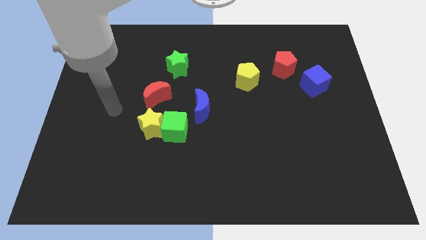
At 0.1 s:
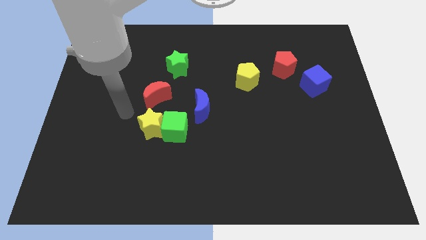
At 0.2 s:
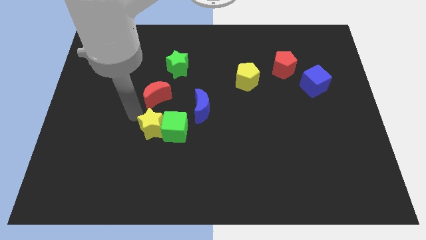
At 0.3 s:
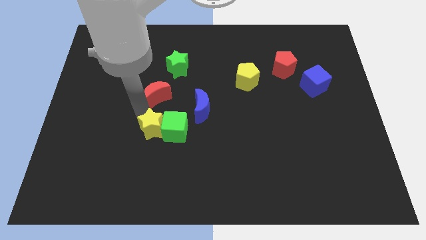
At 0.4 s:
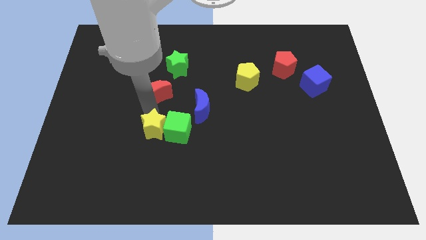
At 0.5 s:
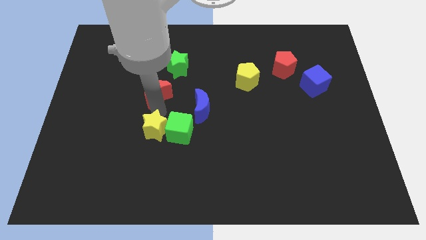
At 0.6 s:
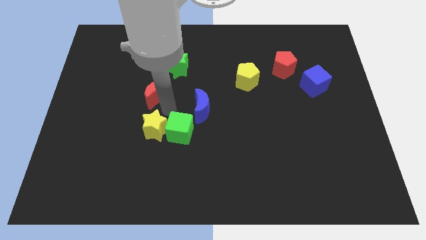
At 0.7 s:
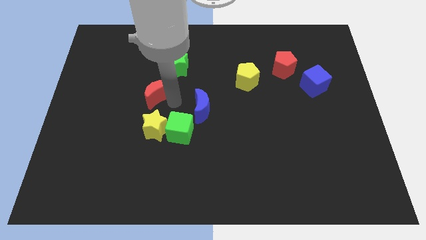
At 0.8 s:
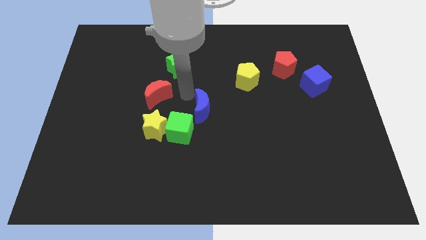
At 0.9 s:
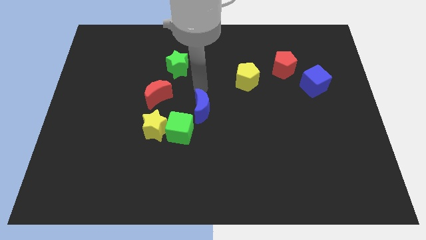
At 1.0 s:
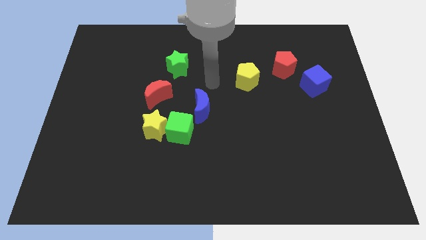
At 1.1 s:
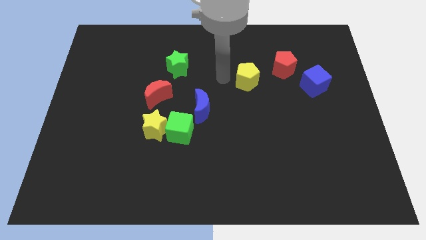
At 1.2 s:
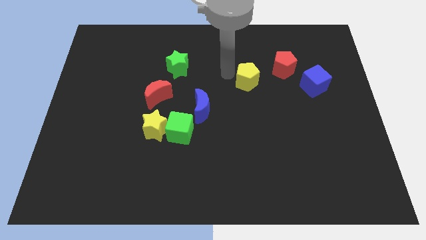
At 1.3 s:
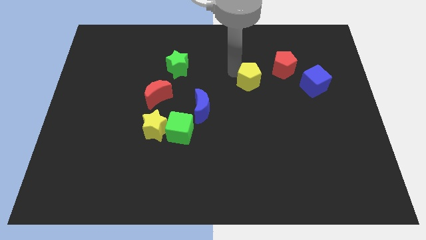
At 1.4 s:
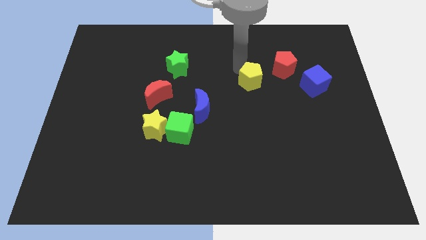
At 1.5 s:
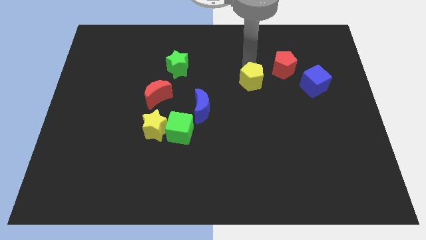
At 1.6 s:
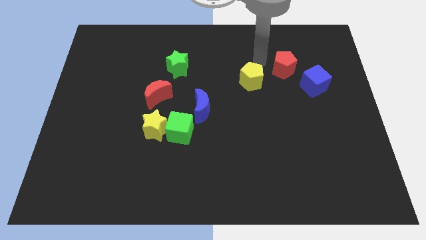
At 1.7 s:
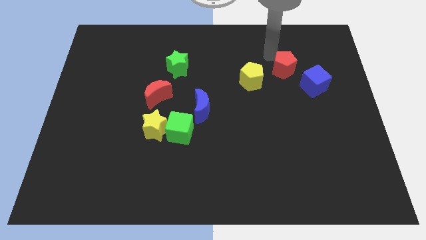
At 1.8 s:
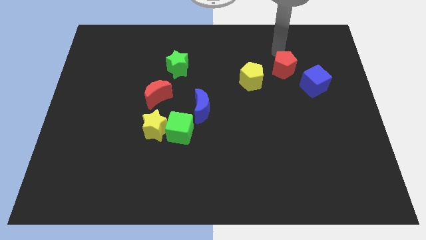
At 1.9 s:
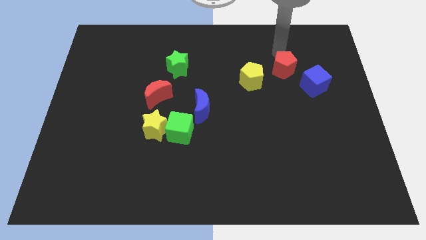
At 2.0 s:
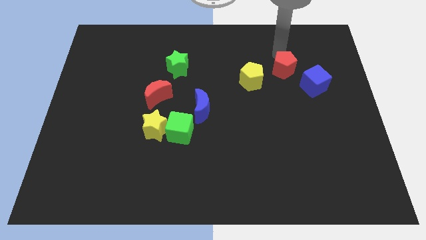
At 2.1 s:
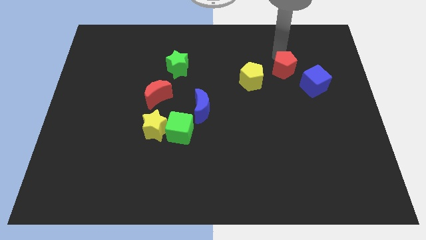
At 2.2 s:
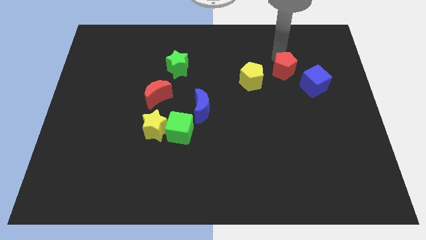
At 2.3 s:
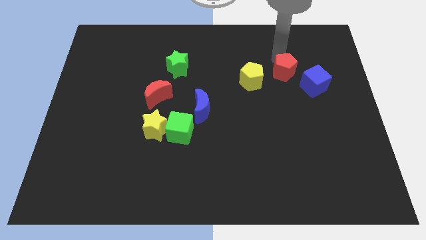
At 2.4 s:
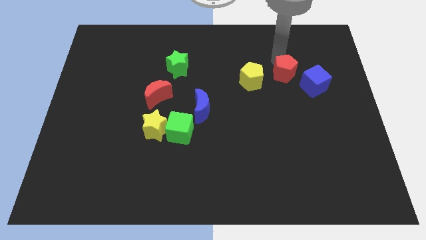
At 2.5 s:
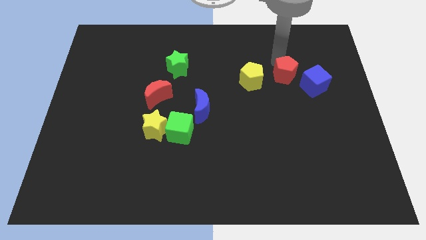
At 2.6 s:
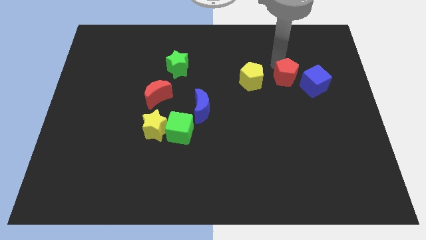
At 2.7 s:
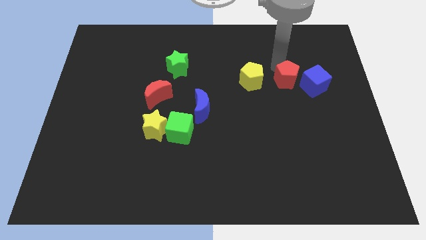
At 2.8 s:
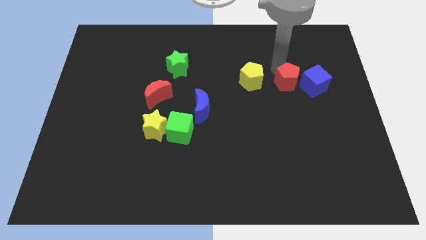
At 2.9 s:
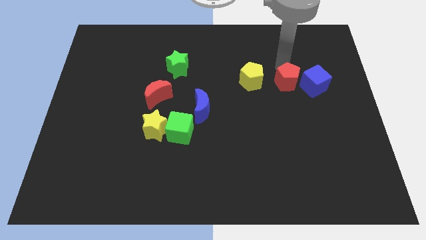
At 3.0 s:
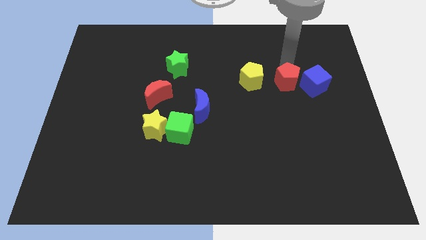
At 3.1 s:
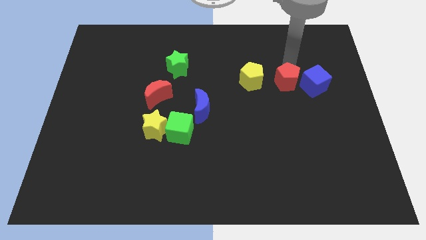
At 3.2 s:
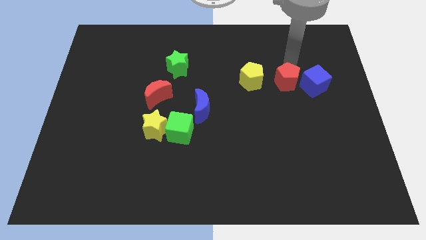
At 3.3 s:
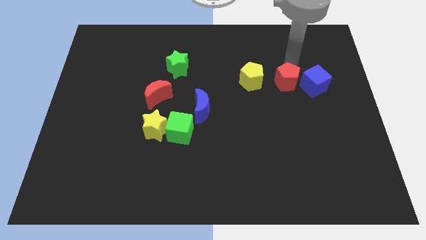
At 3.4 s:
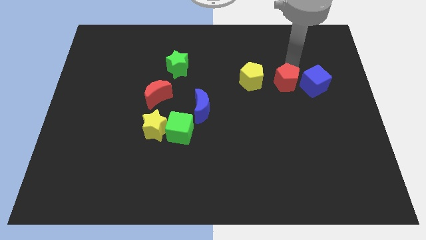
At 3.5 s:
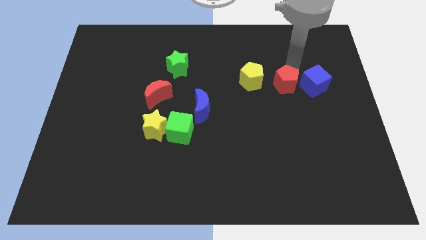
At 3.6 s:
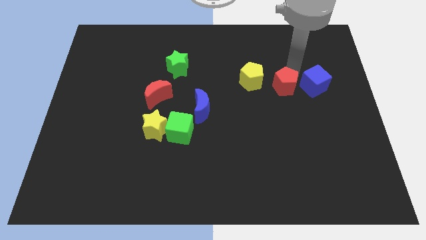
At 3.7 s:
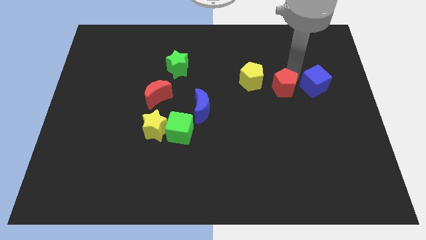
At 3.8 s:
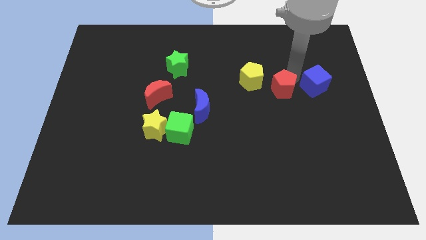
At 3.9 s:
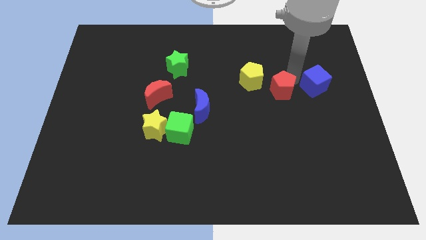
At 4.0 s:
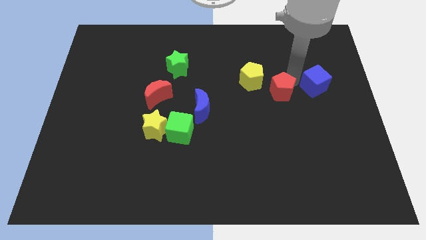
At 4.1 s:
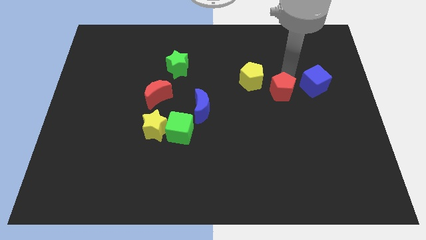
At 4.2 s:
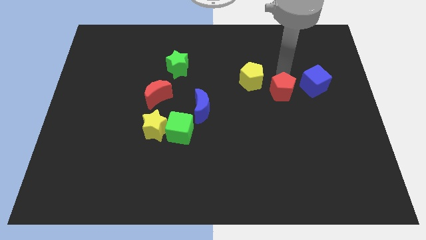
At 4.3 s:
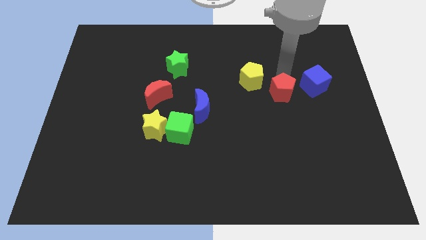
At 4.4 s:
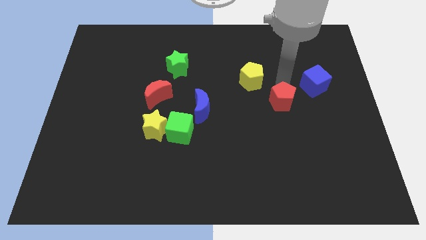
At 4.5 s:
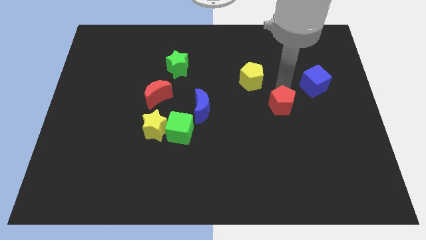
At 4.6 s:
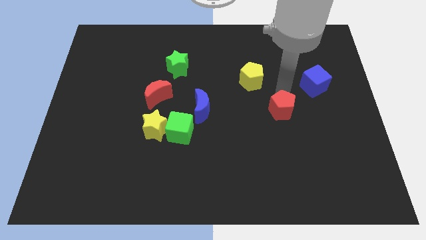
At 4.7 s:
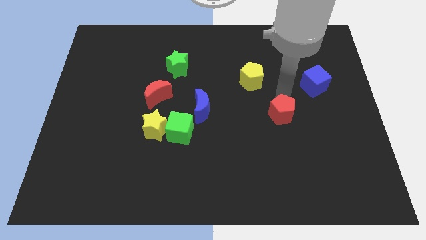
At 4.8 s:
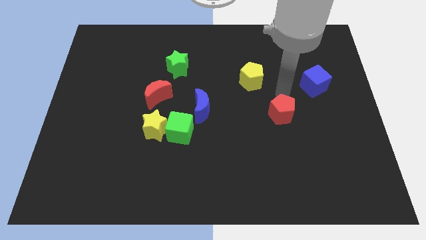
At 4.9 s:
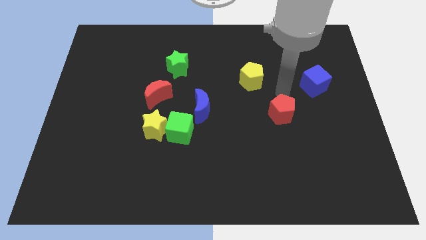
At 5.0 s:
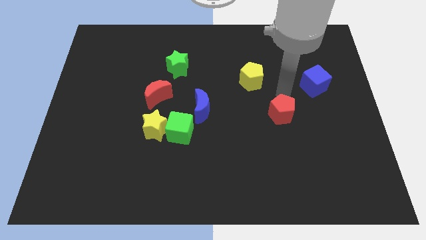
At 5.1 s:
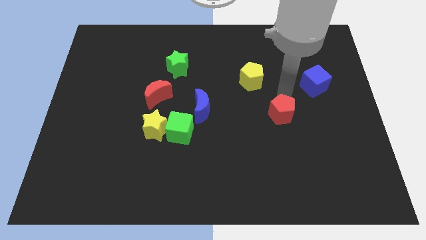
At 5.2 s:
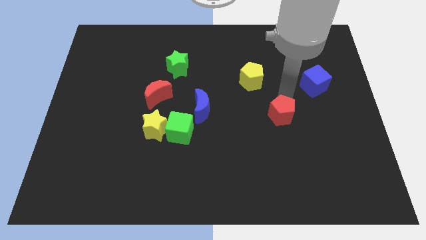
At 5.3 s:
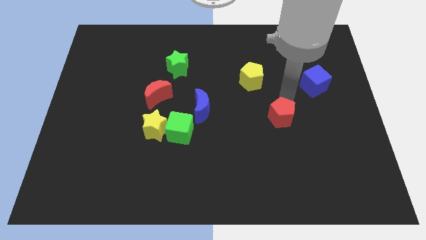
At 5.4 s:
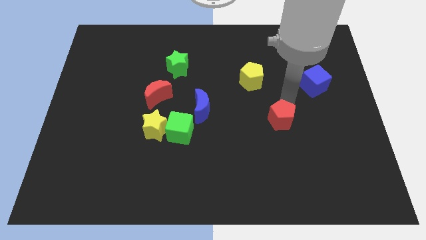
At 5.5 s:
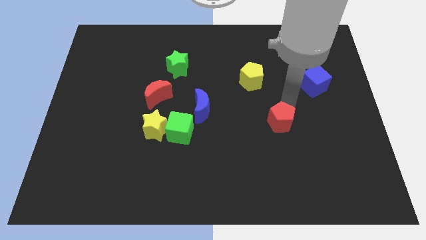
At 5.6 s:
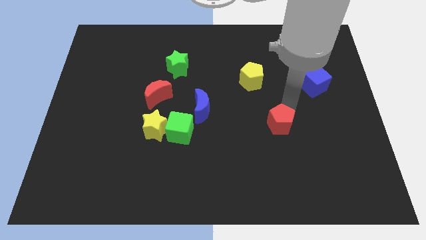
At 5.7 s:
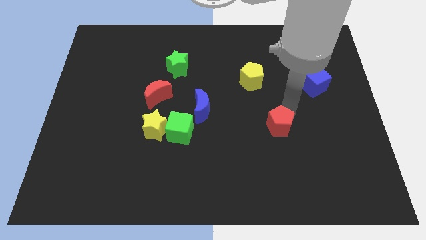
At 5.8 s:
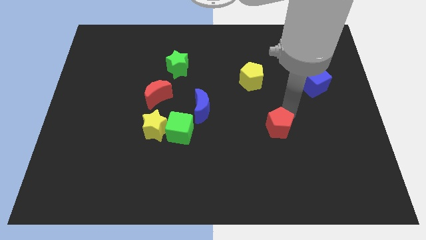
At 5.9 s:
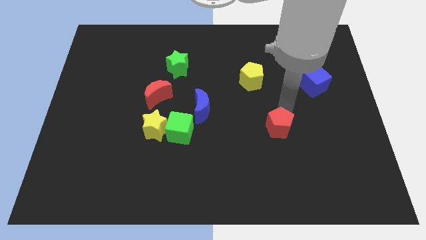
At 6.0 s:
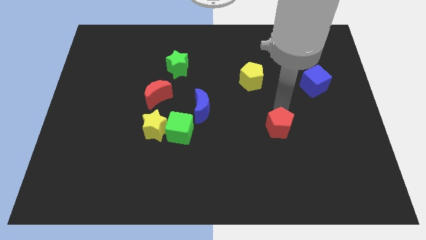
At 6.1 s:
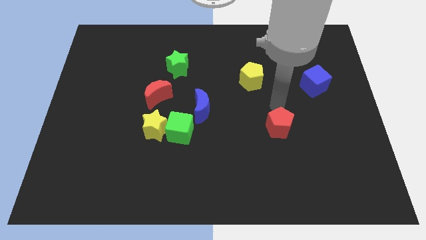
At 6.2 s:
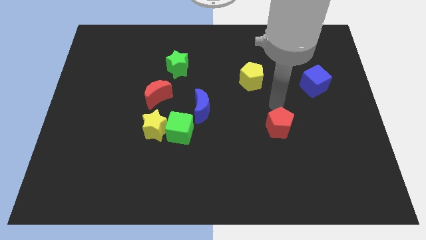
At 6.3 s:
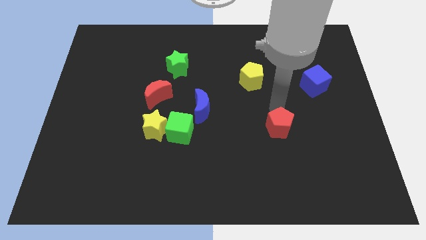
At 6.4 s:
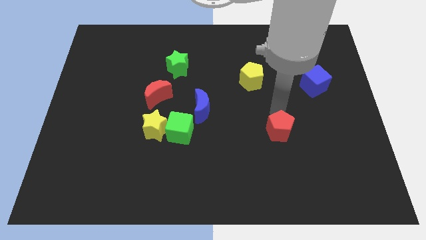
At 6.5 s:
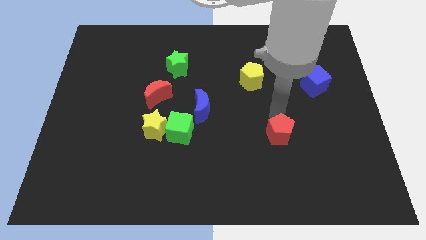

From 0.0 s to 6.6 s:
push the red pentagon down

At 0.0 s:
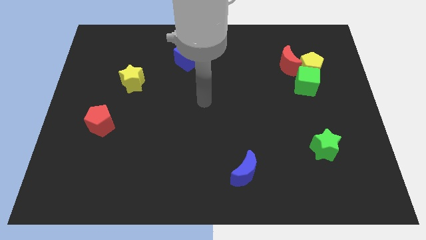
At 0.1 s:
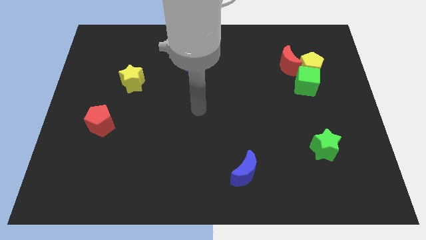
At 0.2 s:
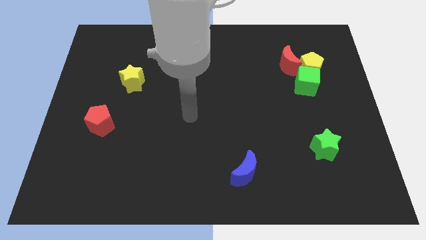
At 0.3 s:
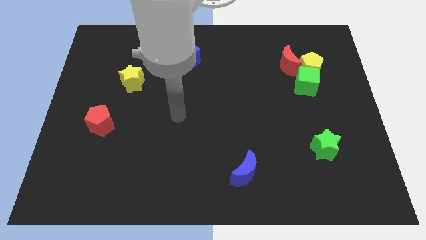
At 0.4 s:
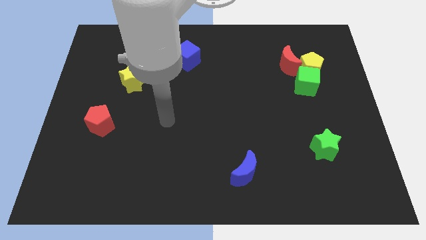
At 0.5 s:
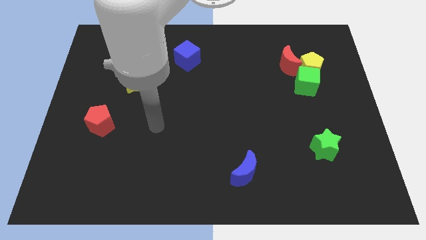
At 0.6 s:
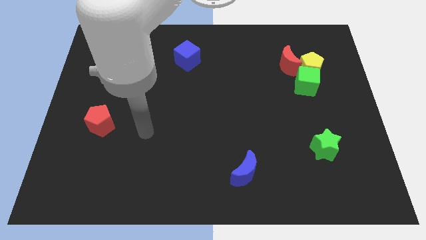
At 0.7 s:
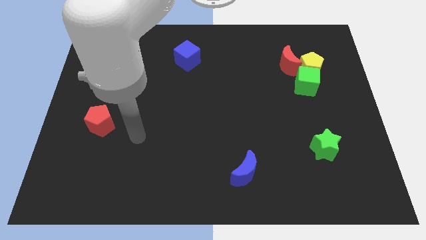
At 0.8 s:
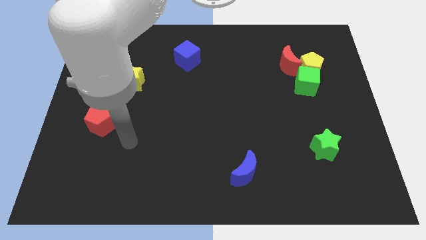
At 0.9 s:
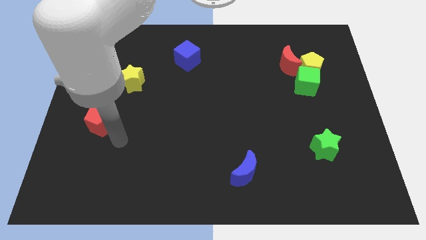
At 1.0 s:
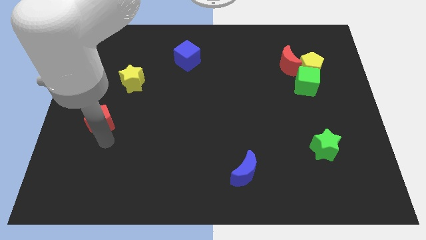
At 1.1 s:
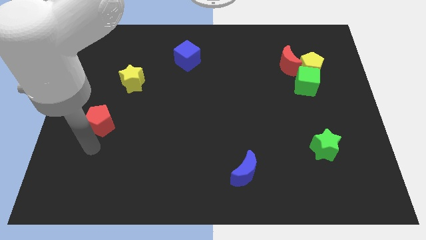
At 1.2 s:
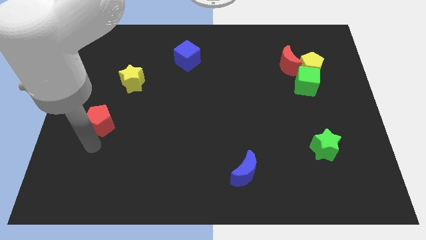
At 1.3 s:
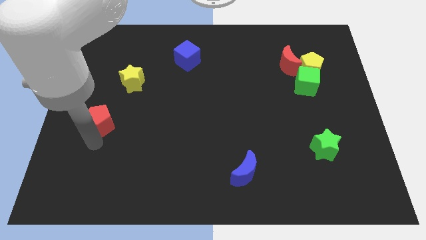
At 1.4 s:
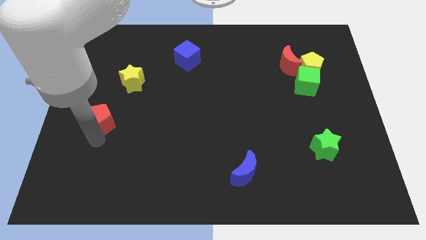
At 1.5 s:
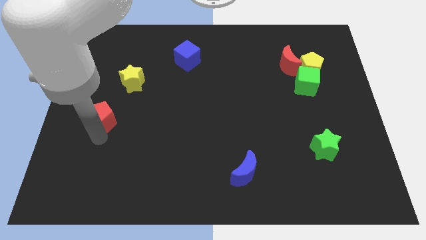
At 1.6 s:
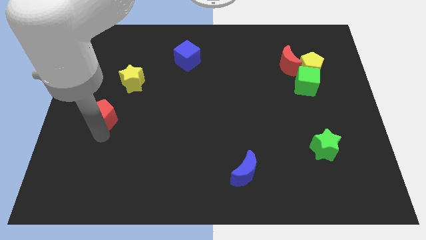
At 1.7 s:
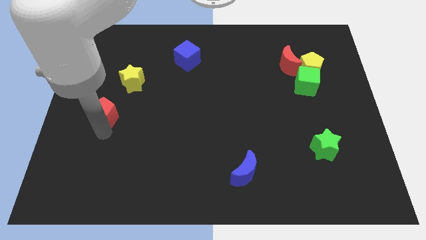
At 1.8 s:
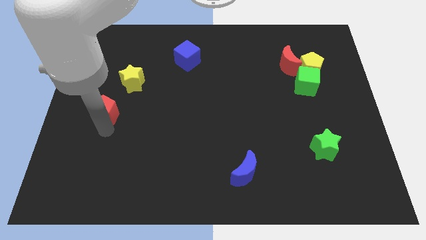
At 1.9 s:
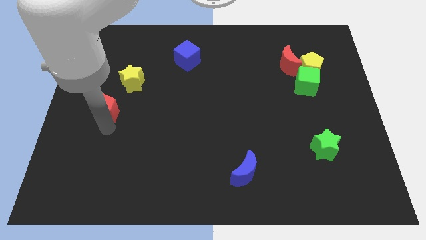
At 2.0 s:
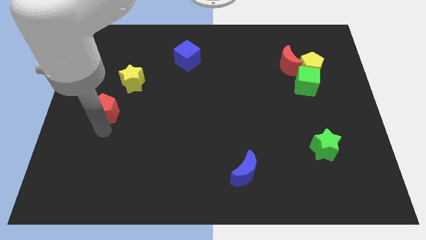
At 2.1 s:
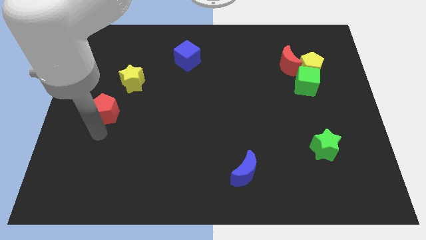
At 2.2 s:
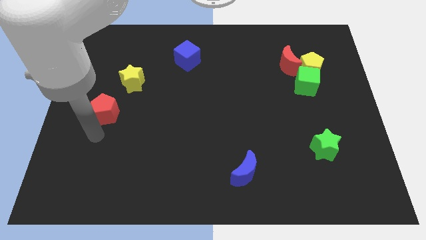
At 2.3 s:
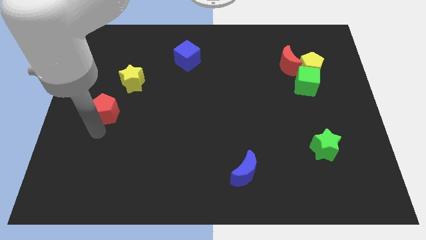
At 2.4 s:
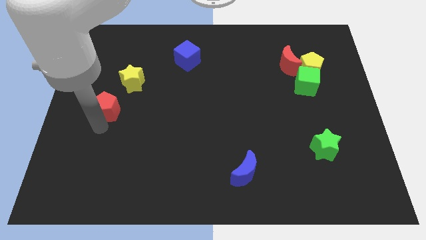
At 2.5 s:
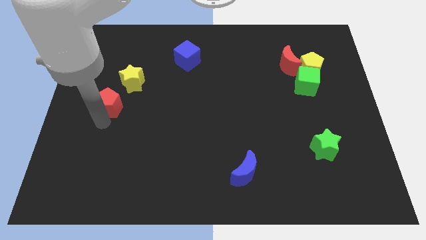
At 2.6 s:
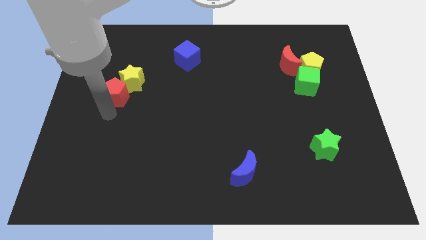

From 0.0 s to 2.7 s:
slide the red pentagon up somewhat
